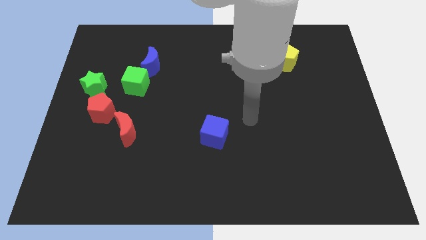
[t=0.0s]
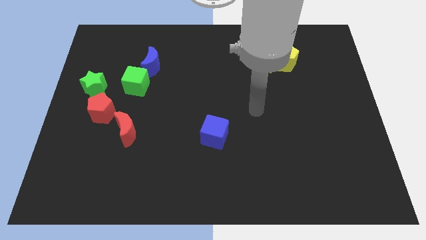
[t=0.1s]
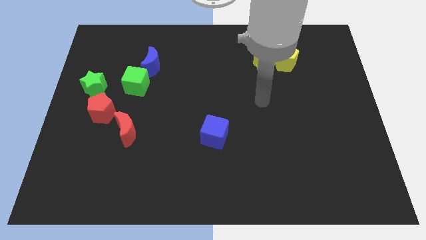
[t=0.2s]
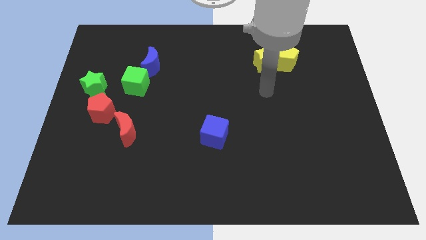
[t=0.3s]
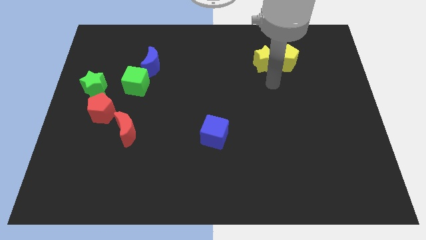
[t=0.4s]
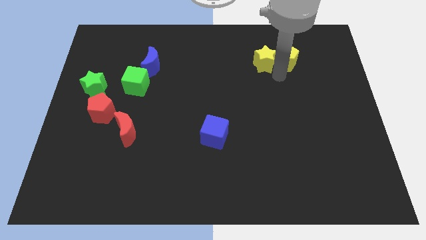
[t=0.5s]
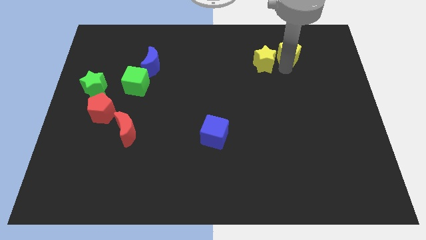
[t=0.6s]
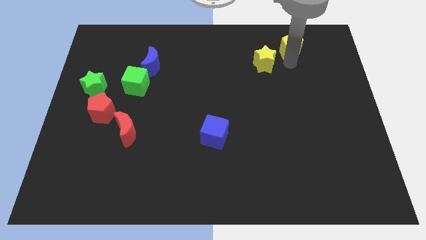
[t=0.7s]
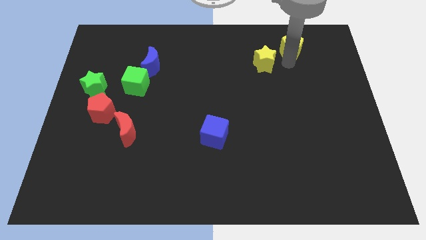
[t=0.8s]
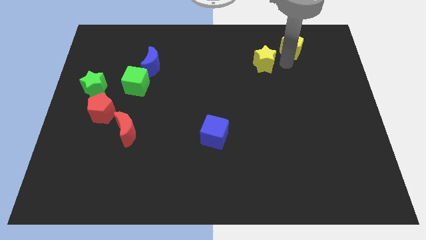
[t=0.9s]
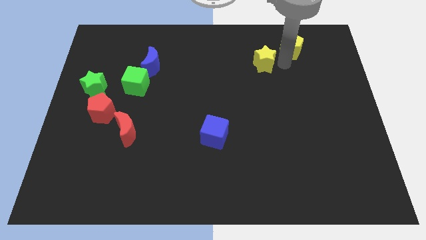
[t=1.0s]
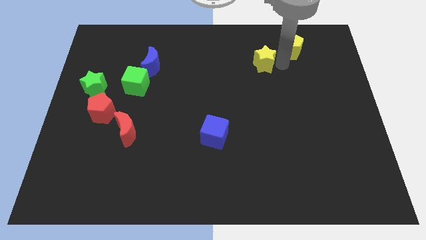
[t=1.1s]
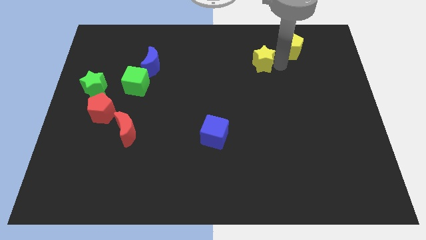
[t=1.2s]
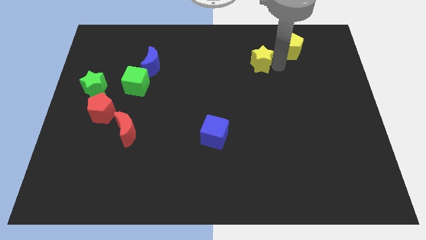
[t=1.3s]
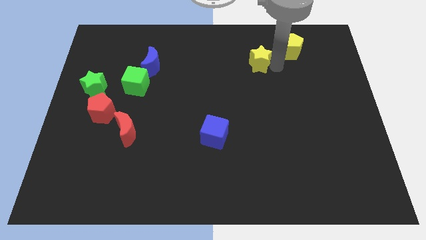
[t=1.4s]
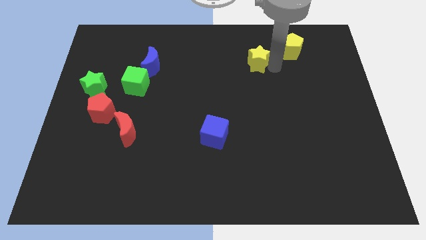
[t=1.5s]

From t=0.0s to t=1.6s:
move the yellow star away from the yellow pentagon

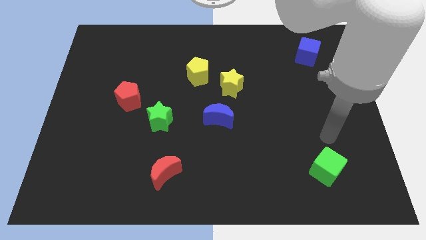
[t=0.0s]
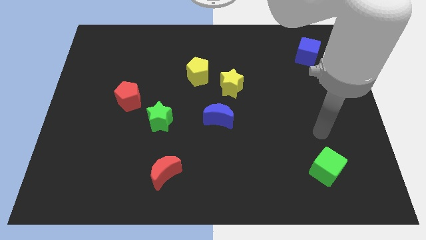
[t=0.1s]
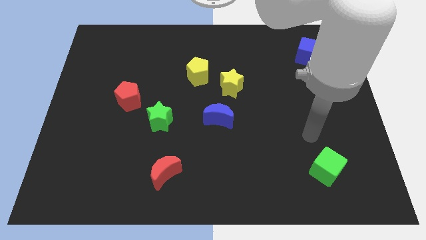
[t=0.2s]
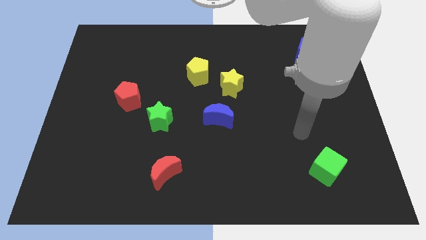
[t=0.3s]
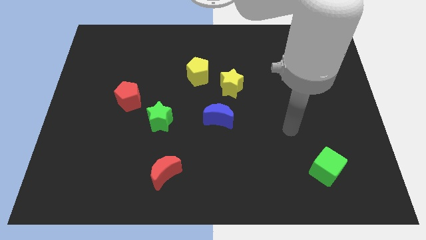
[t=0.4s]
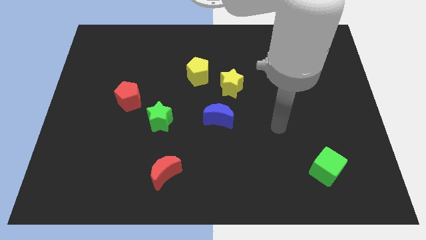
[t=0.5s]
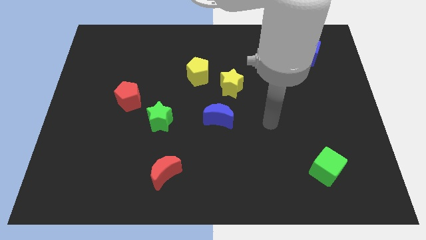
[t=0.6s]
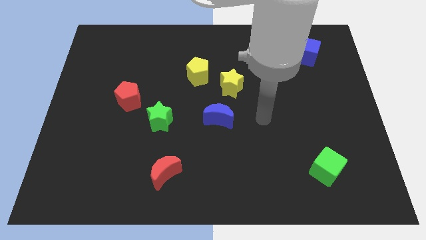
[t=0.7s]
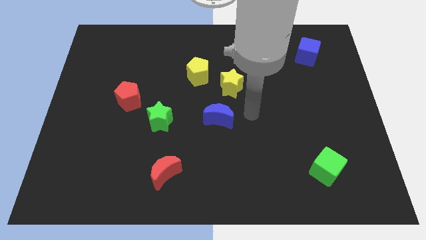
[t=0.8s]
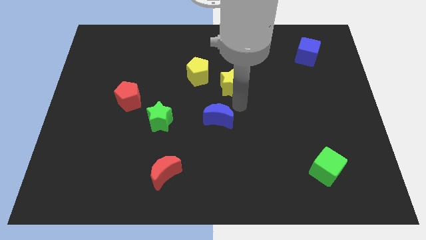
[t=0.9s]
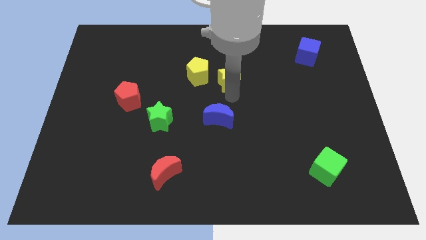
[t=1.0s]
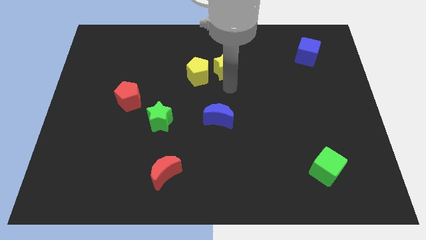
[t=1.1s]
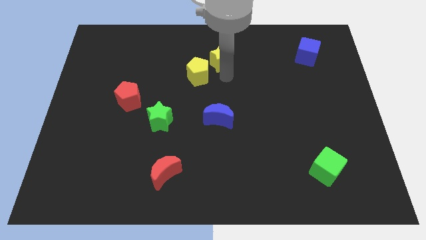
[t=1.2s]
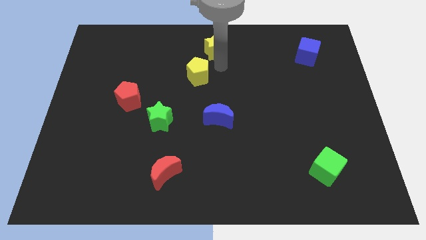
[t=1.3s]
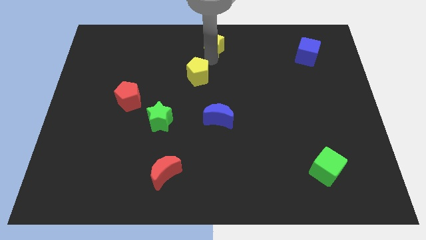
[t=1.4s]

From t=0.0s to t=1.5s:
separate the yellow pentagon from the yellow star

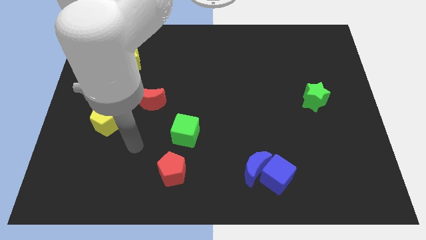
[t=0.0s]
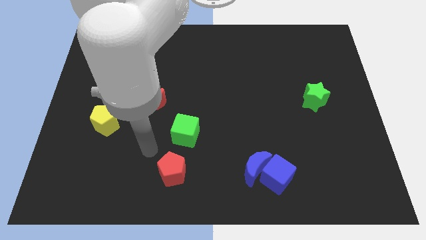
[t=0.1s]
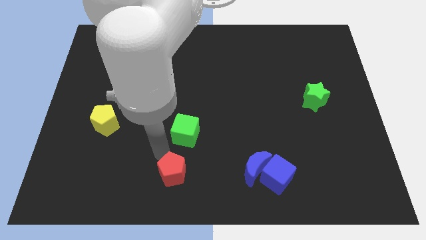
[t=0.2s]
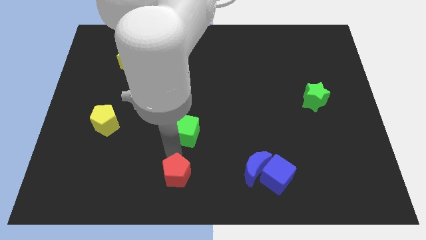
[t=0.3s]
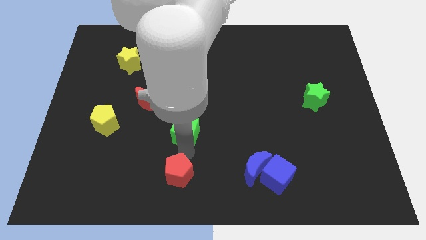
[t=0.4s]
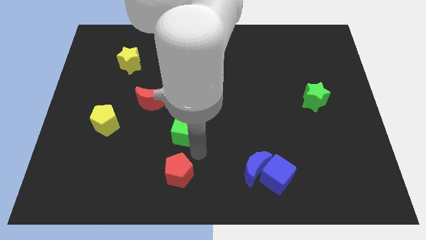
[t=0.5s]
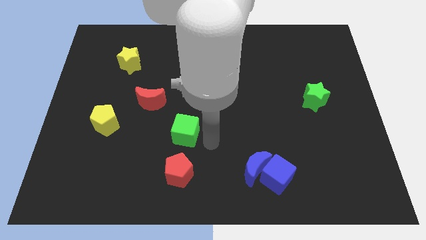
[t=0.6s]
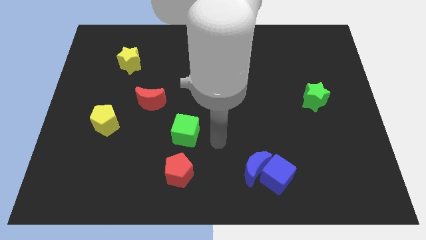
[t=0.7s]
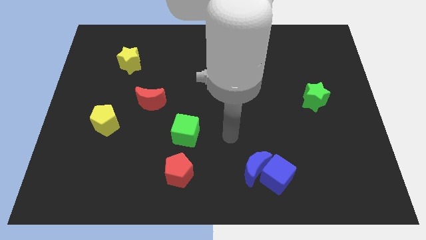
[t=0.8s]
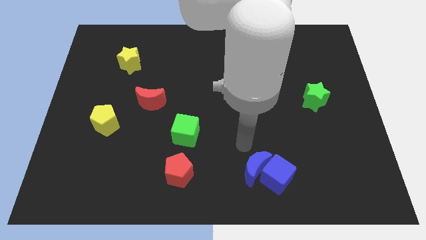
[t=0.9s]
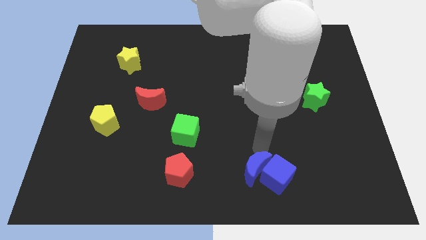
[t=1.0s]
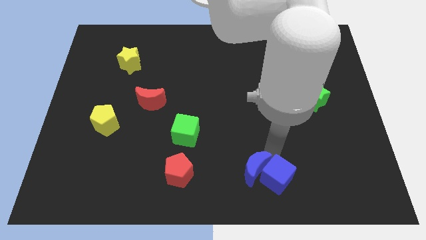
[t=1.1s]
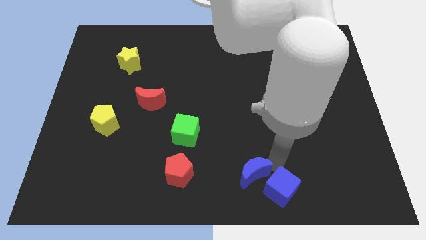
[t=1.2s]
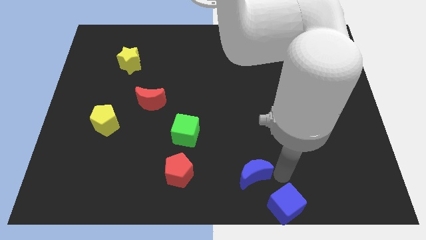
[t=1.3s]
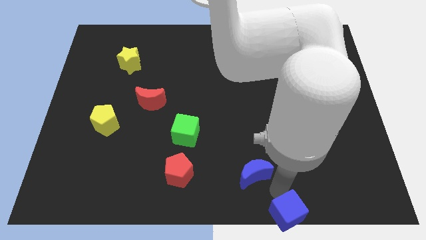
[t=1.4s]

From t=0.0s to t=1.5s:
separate the blue moon from the blue cube

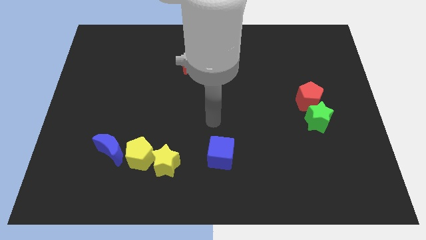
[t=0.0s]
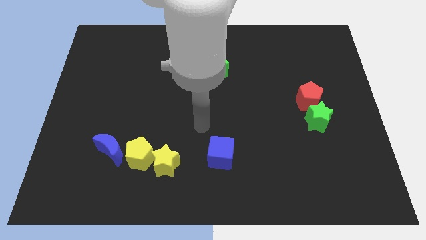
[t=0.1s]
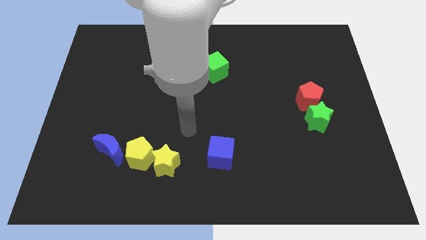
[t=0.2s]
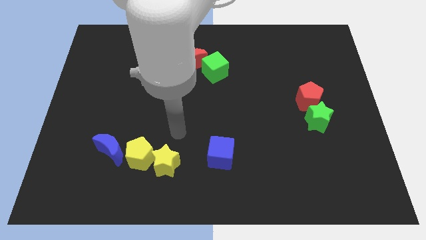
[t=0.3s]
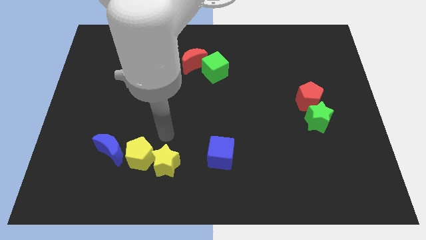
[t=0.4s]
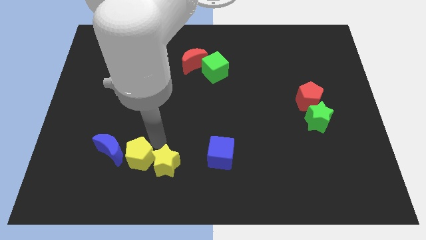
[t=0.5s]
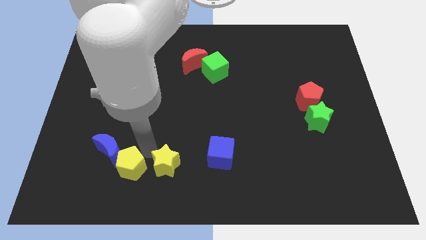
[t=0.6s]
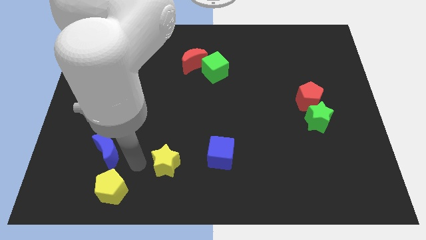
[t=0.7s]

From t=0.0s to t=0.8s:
separate the yellow star from the yellow pentagon

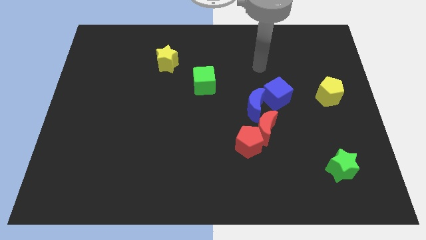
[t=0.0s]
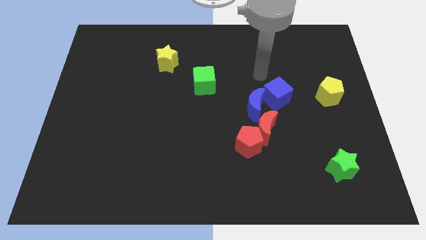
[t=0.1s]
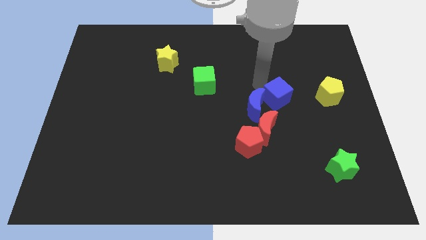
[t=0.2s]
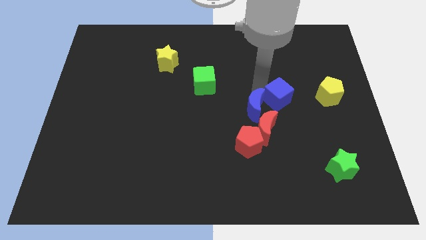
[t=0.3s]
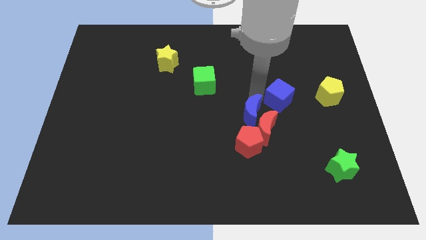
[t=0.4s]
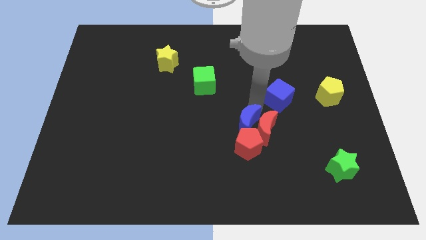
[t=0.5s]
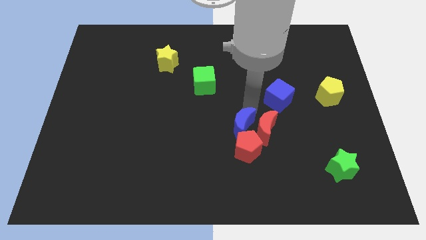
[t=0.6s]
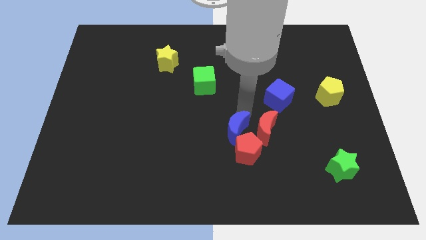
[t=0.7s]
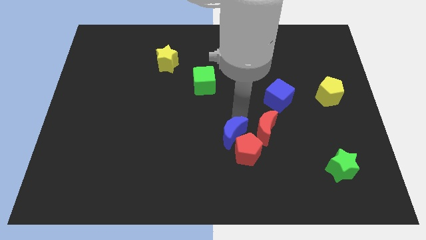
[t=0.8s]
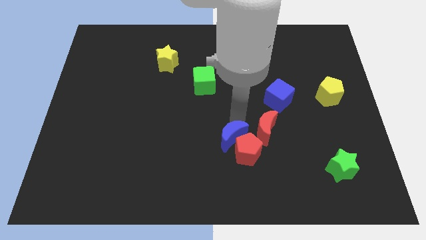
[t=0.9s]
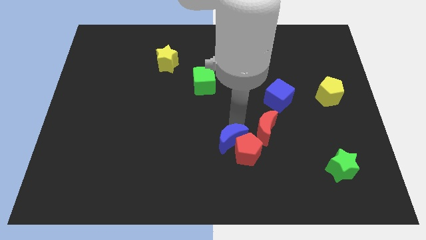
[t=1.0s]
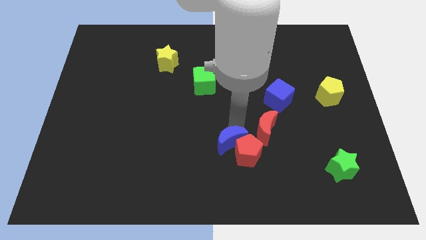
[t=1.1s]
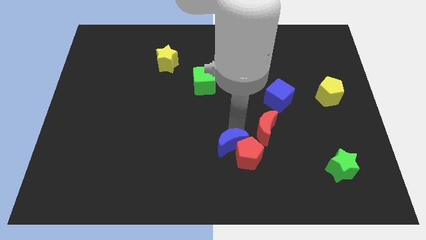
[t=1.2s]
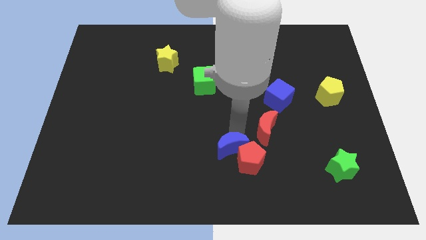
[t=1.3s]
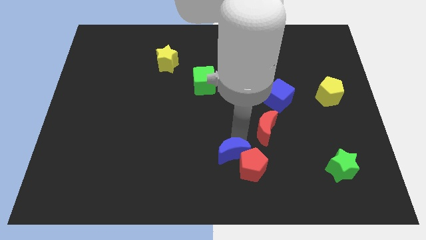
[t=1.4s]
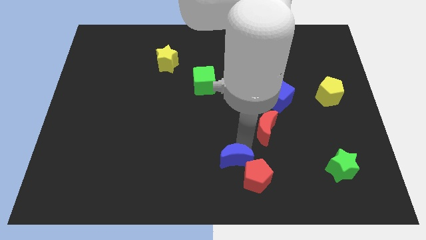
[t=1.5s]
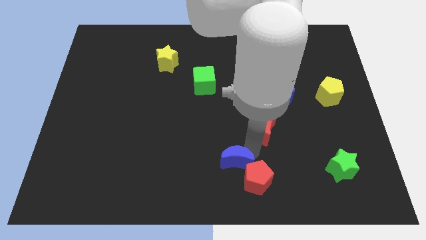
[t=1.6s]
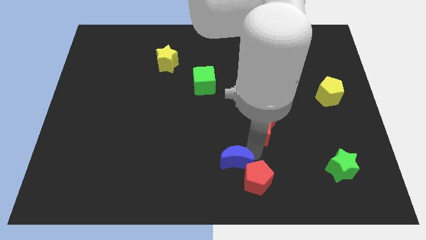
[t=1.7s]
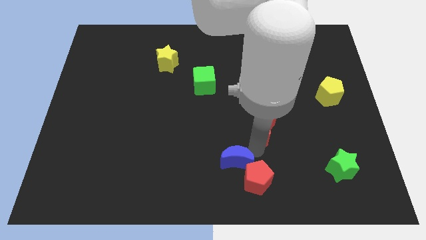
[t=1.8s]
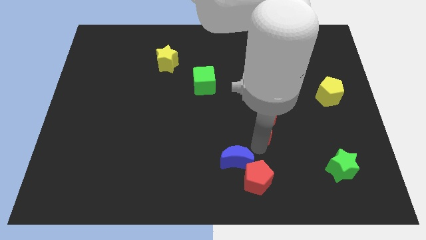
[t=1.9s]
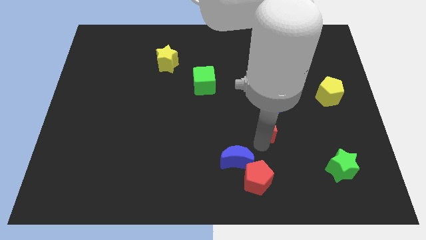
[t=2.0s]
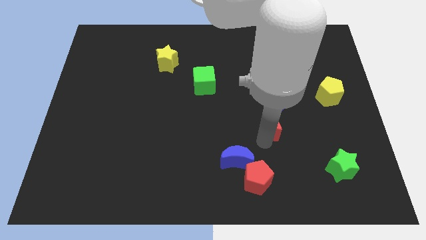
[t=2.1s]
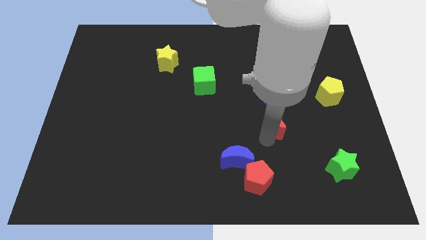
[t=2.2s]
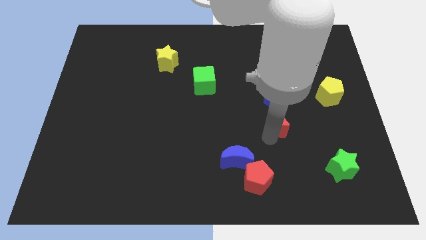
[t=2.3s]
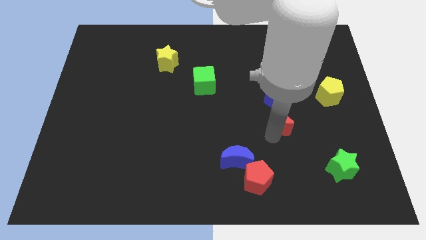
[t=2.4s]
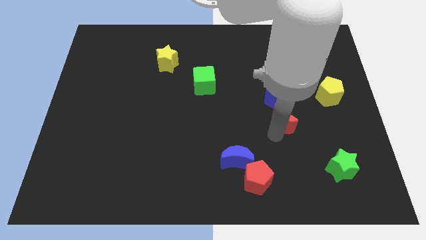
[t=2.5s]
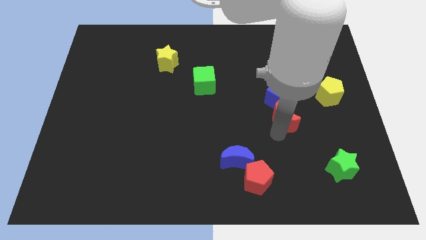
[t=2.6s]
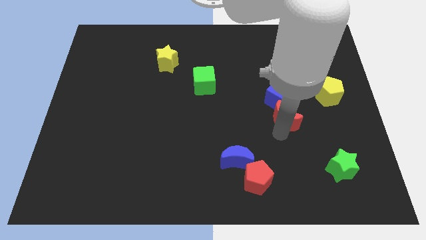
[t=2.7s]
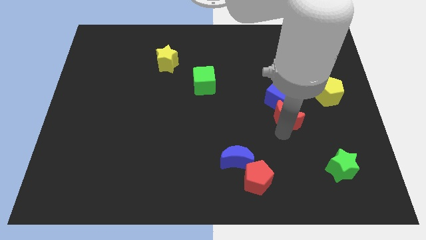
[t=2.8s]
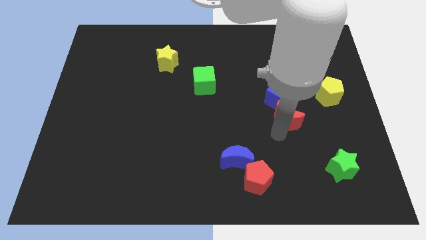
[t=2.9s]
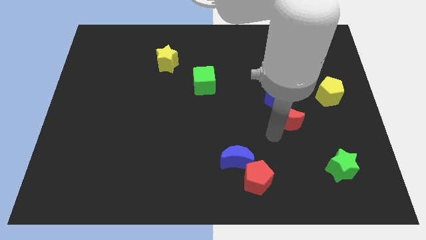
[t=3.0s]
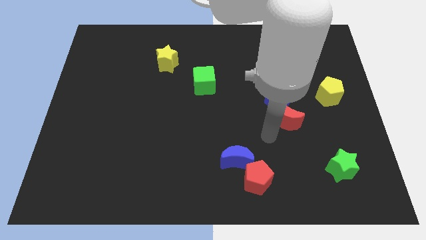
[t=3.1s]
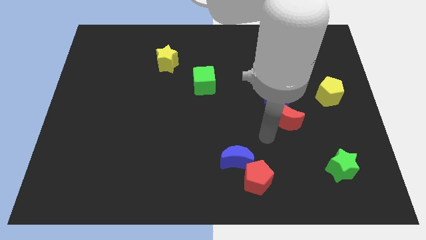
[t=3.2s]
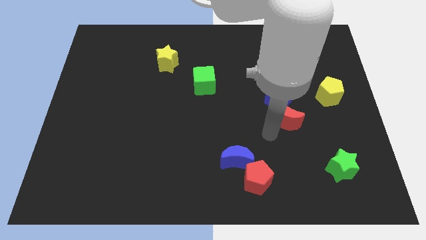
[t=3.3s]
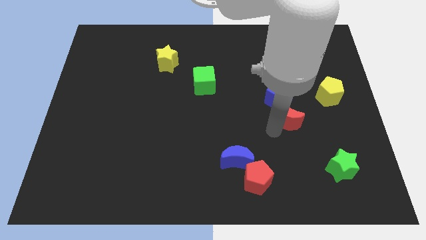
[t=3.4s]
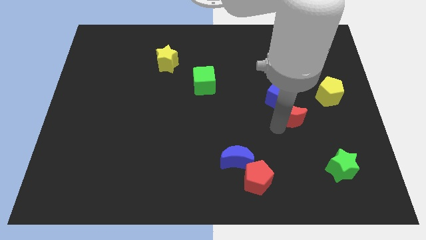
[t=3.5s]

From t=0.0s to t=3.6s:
move the red moon away from the red pentagon, blue moon, and blue cube

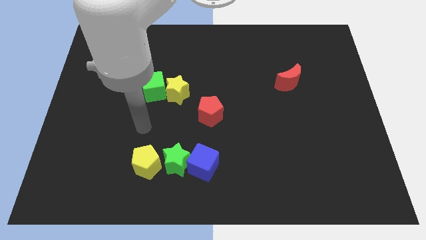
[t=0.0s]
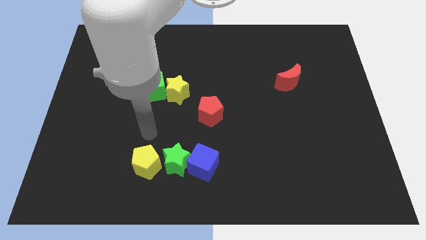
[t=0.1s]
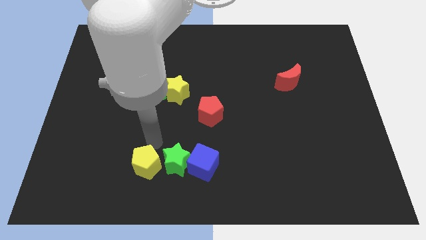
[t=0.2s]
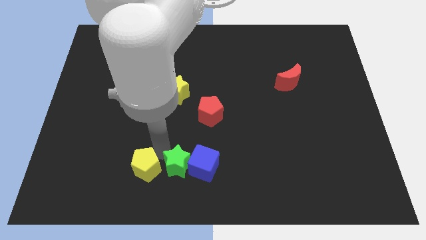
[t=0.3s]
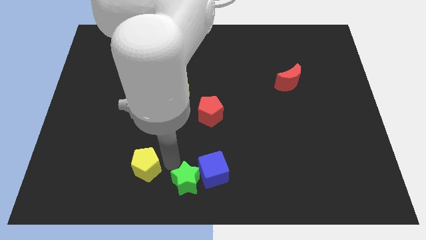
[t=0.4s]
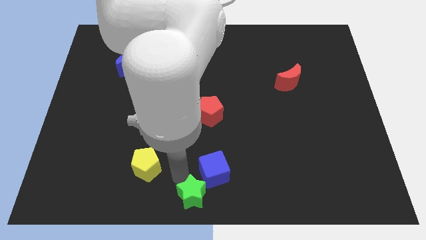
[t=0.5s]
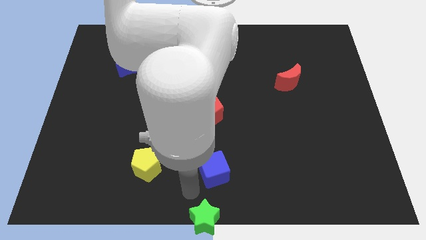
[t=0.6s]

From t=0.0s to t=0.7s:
move the blue cube away from the green star
